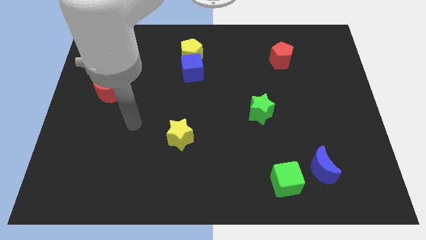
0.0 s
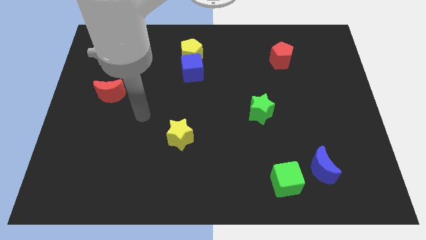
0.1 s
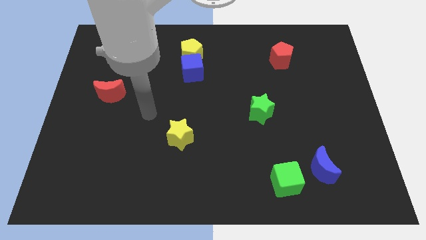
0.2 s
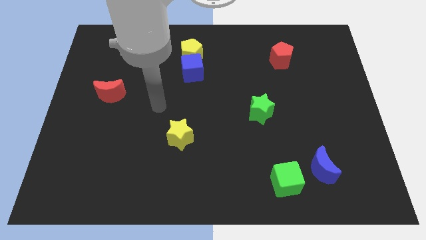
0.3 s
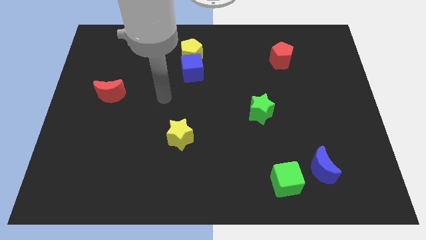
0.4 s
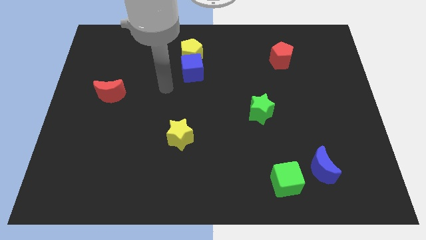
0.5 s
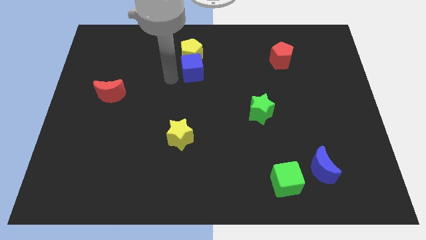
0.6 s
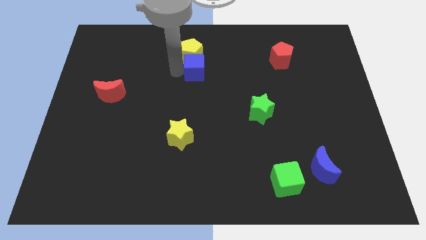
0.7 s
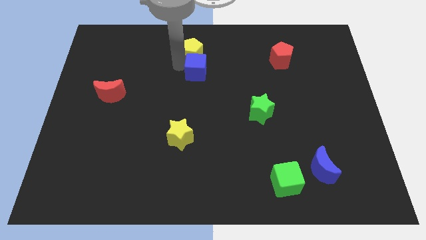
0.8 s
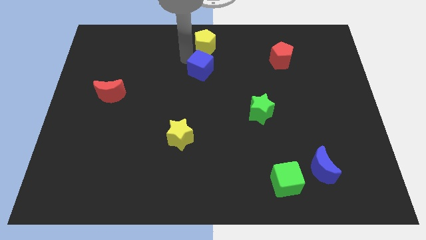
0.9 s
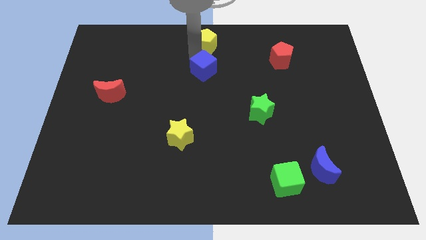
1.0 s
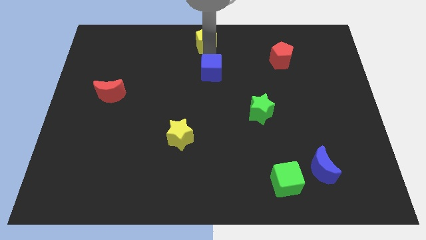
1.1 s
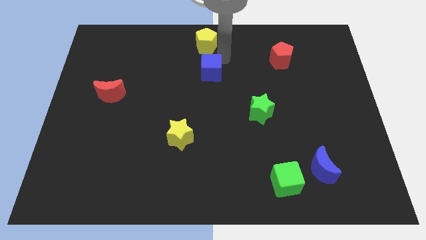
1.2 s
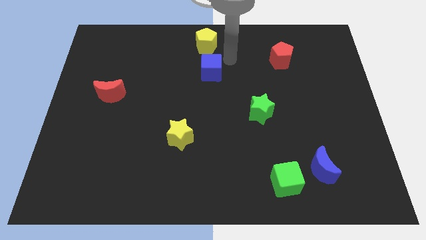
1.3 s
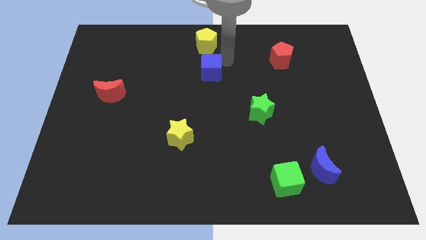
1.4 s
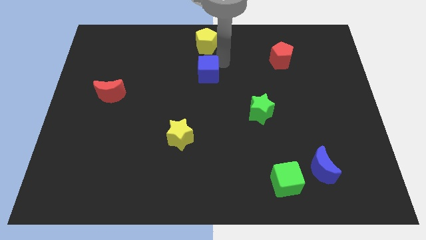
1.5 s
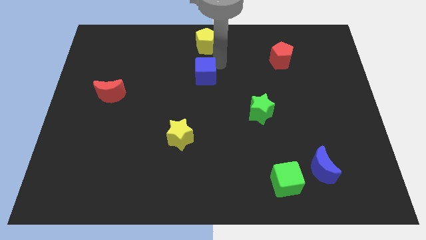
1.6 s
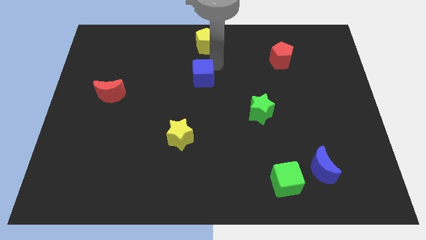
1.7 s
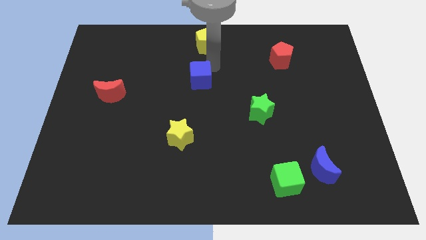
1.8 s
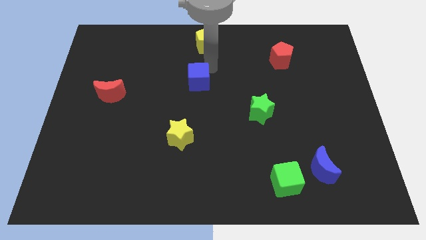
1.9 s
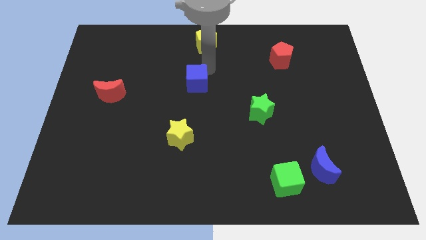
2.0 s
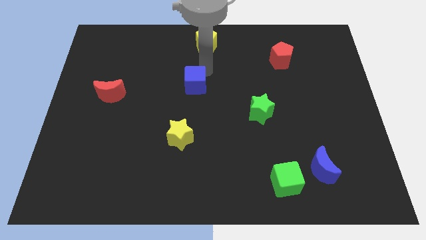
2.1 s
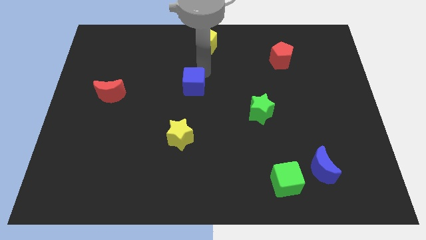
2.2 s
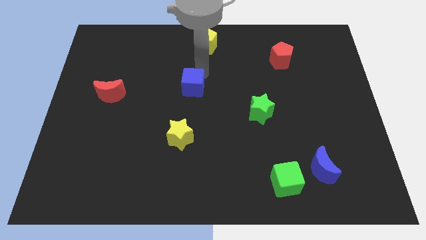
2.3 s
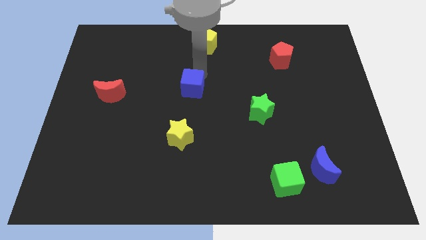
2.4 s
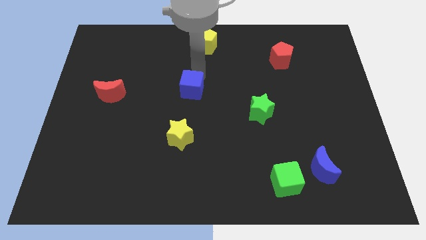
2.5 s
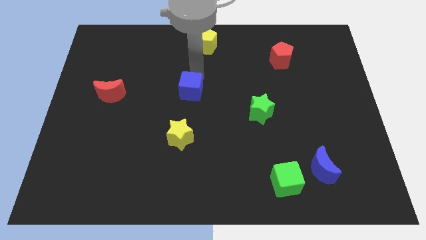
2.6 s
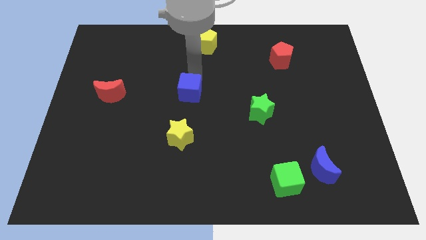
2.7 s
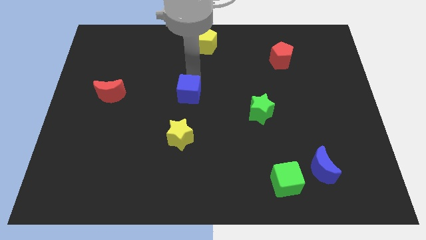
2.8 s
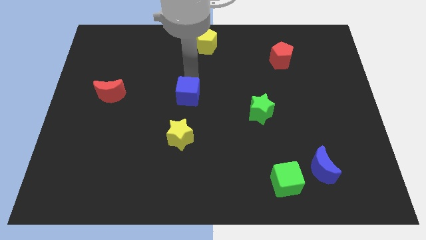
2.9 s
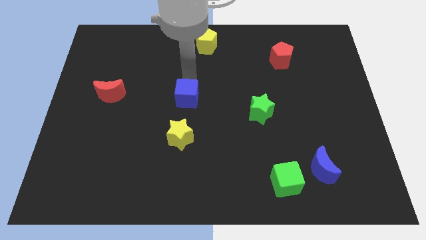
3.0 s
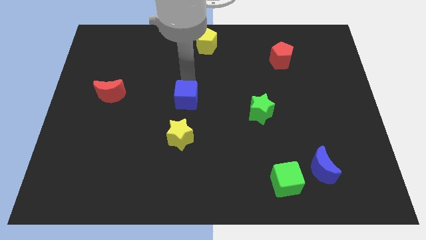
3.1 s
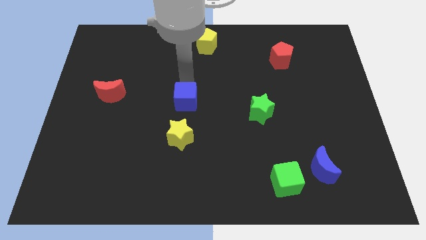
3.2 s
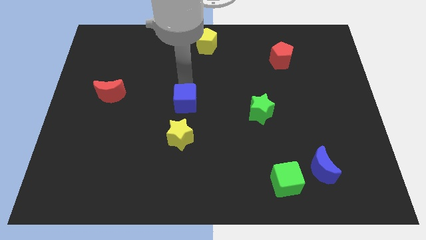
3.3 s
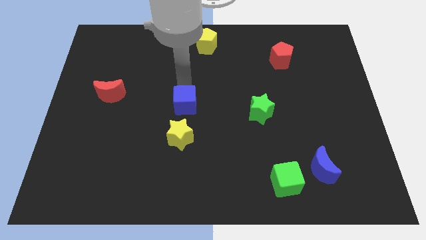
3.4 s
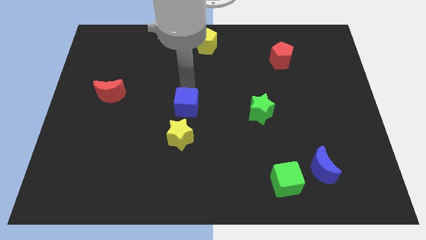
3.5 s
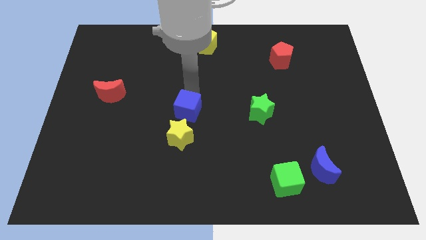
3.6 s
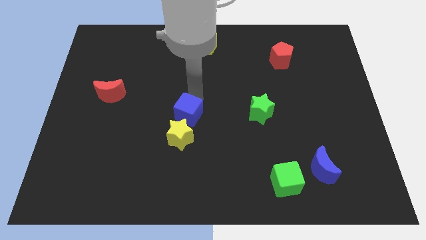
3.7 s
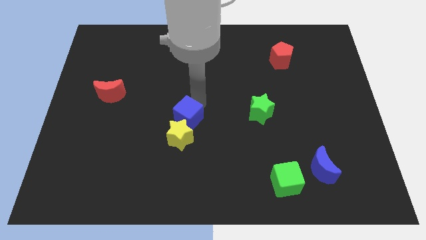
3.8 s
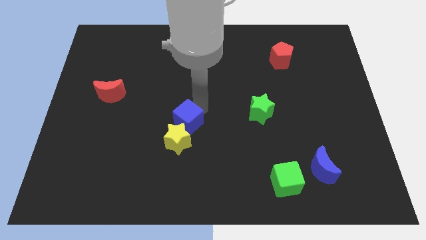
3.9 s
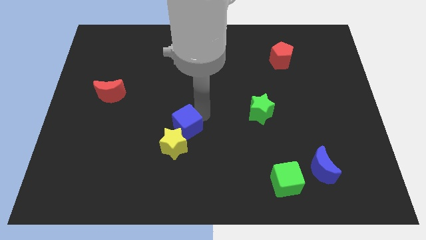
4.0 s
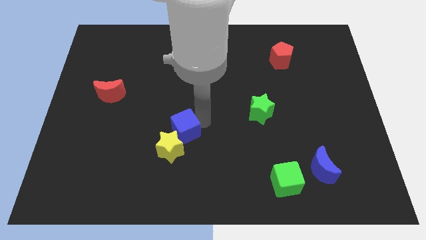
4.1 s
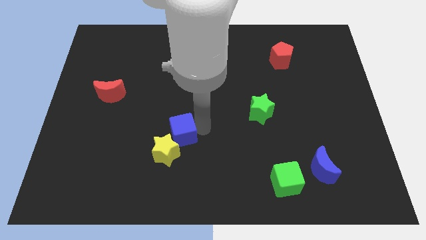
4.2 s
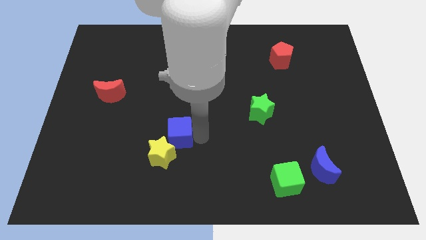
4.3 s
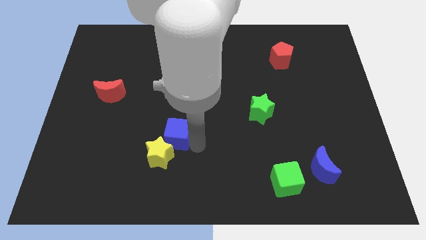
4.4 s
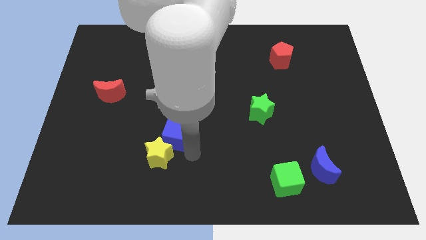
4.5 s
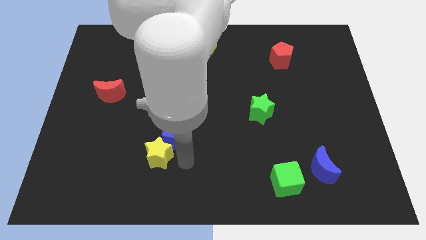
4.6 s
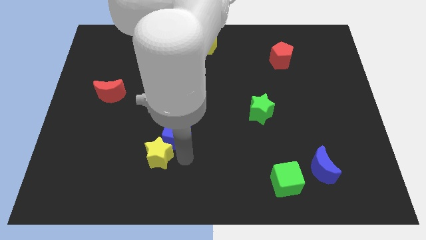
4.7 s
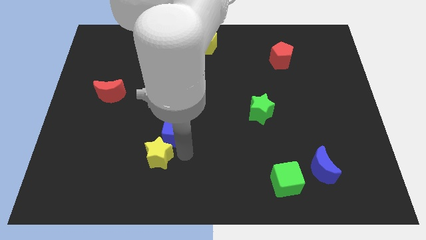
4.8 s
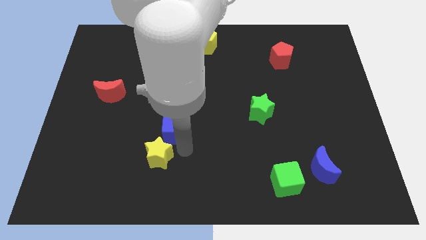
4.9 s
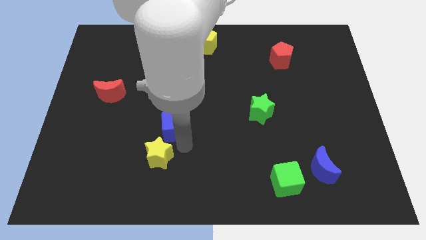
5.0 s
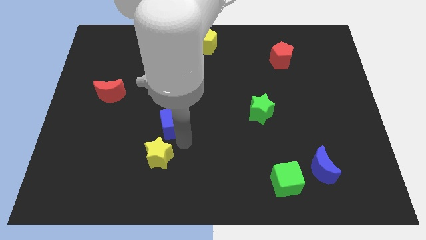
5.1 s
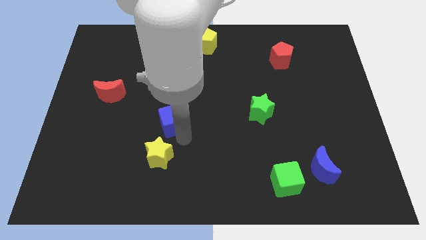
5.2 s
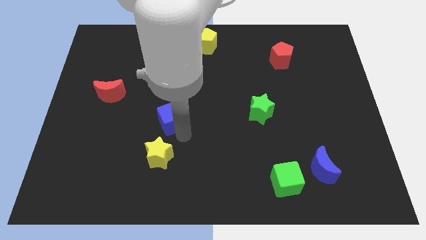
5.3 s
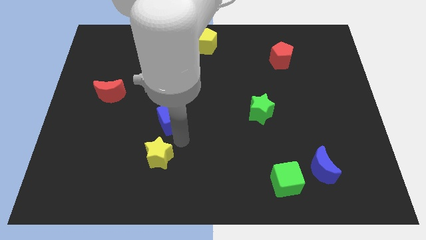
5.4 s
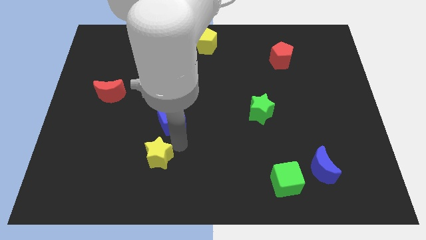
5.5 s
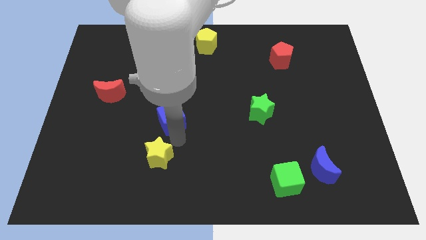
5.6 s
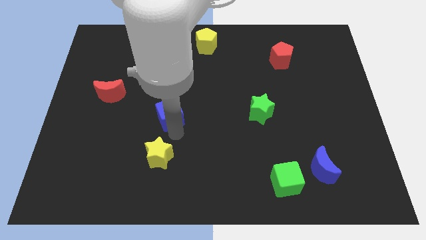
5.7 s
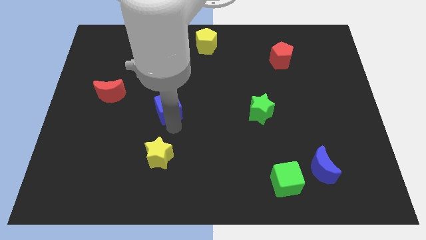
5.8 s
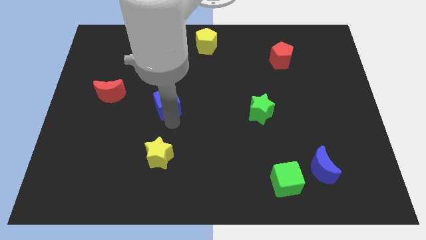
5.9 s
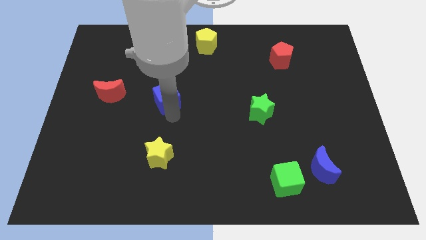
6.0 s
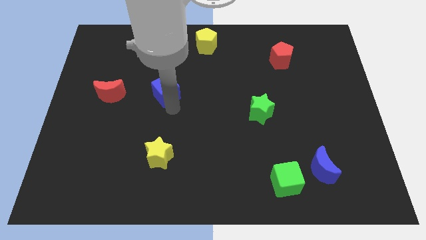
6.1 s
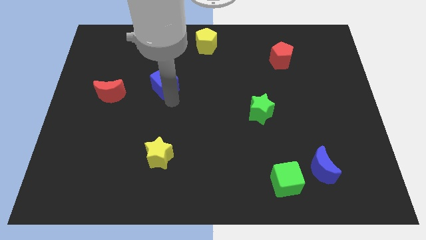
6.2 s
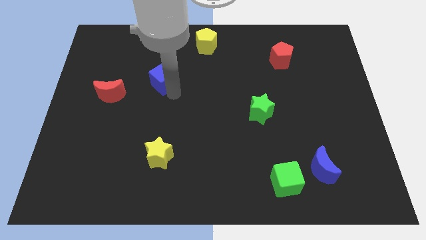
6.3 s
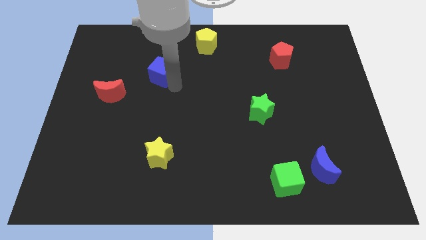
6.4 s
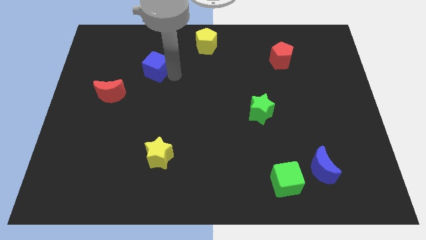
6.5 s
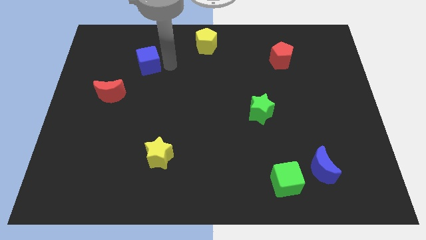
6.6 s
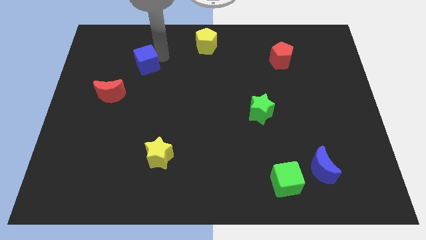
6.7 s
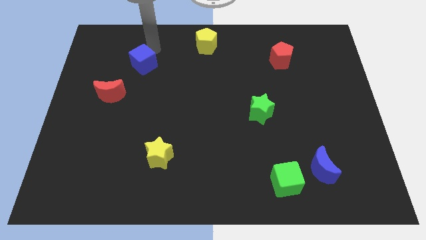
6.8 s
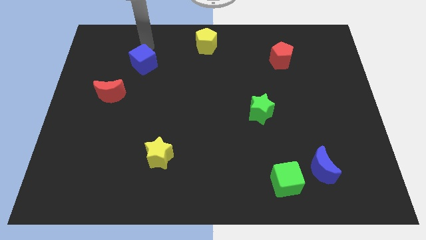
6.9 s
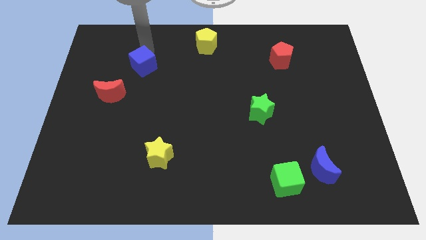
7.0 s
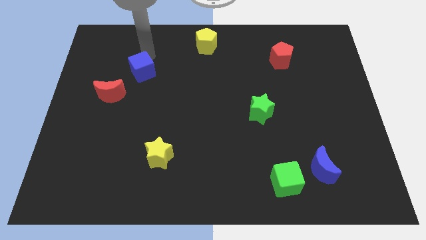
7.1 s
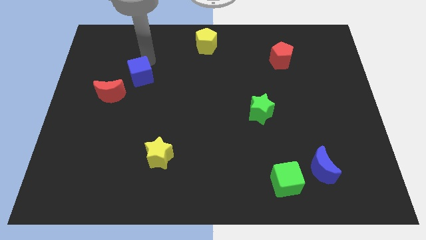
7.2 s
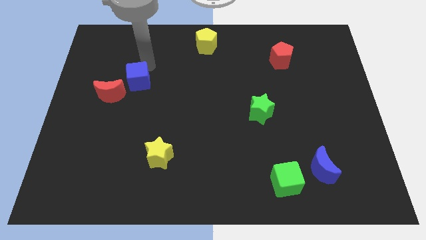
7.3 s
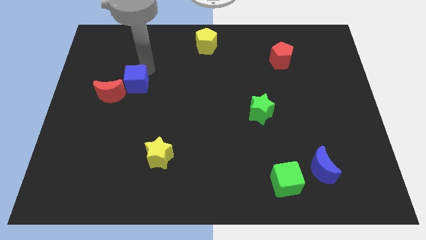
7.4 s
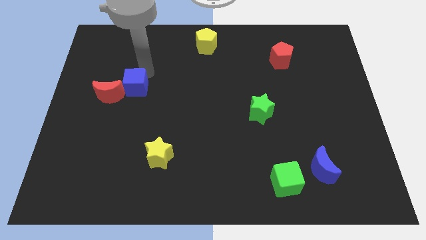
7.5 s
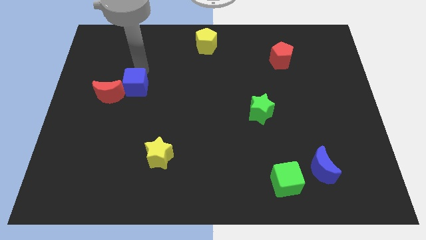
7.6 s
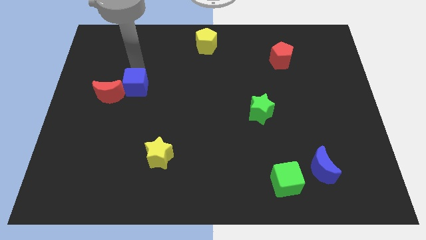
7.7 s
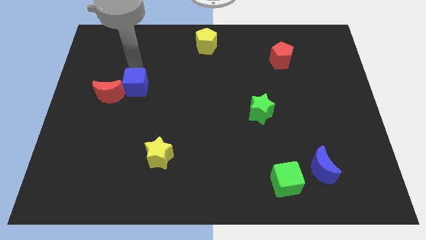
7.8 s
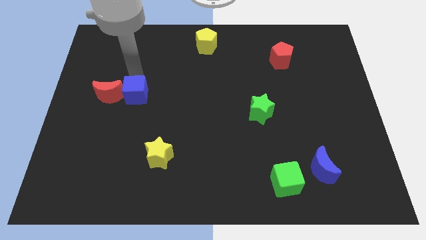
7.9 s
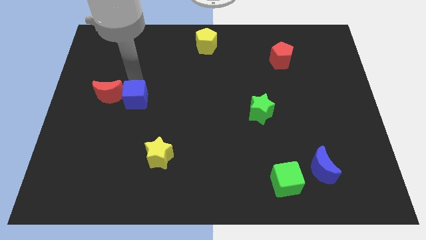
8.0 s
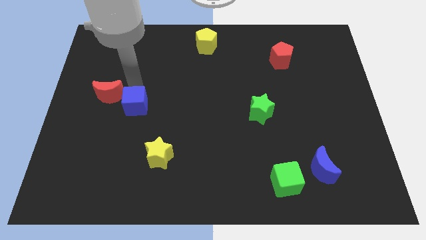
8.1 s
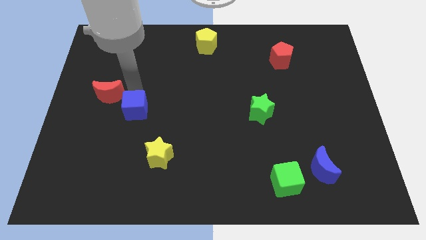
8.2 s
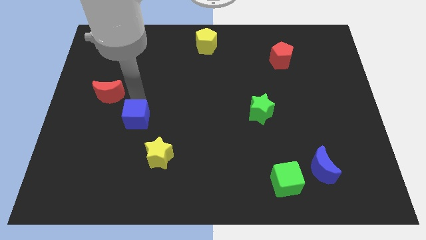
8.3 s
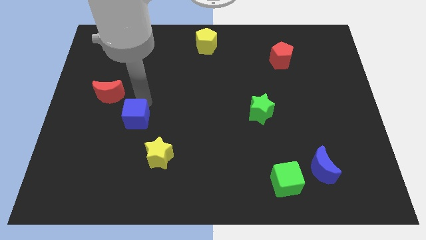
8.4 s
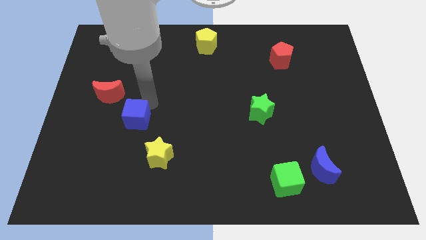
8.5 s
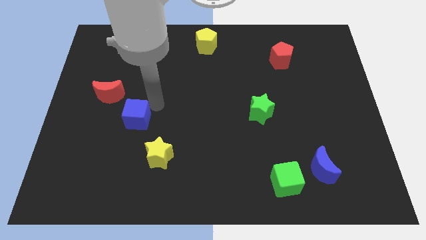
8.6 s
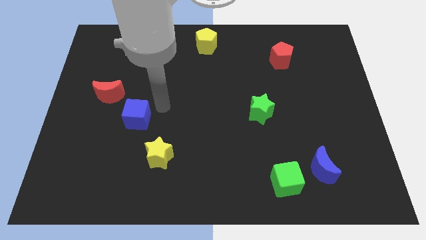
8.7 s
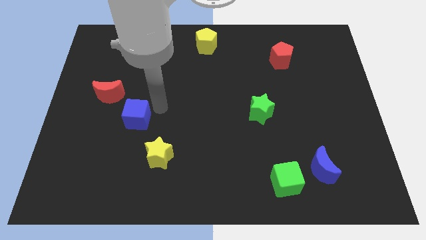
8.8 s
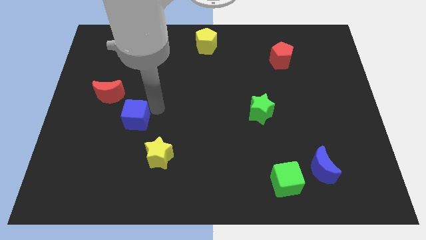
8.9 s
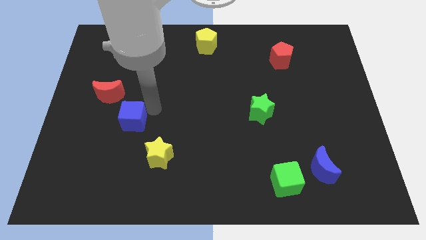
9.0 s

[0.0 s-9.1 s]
move the blue cube diagonally downwards and to the left
